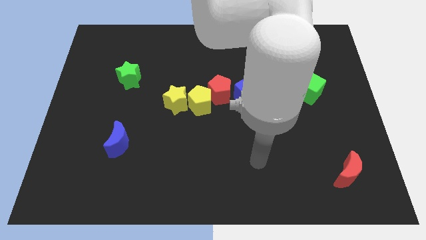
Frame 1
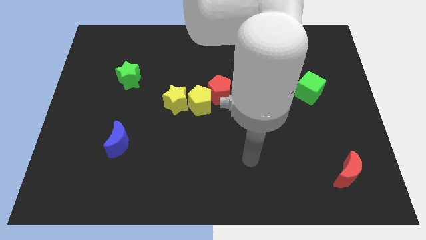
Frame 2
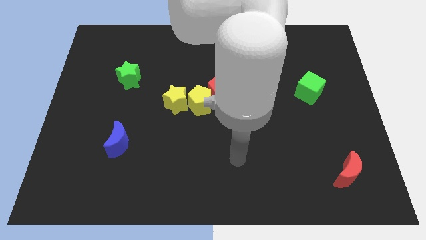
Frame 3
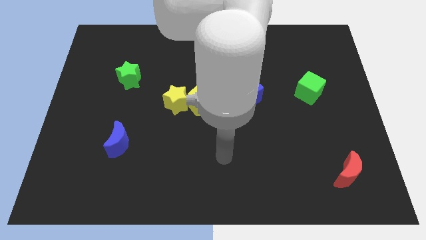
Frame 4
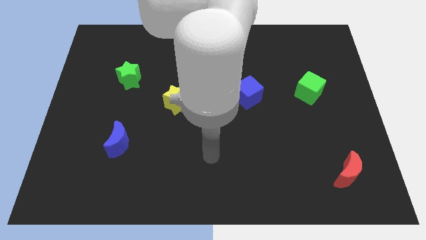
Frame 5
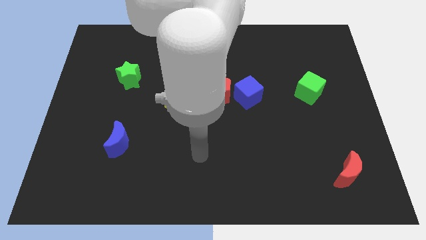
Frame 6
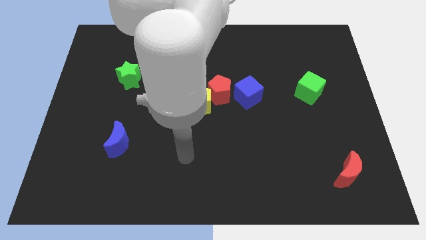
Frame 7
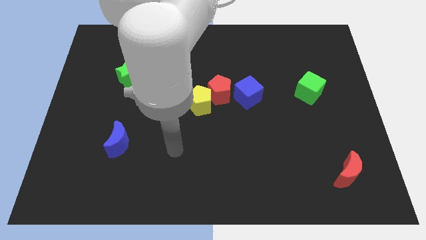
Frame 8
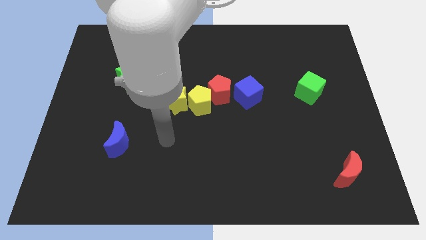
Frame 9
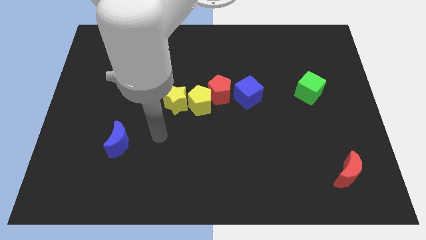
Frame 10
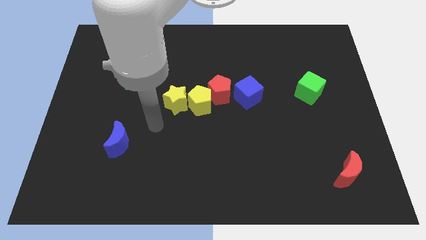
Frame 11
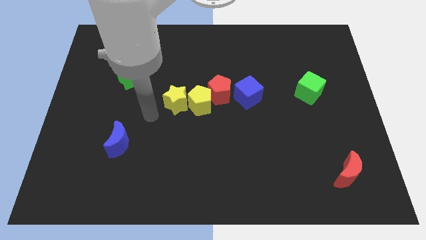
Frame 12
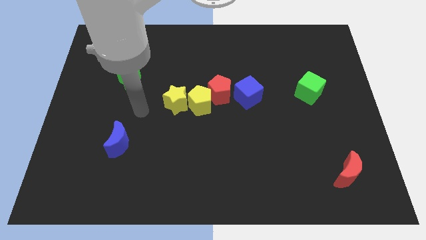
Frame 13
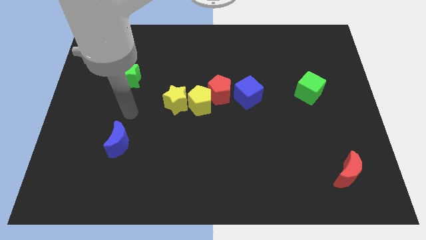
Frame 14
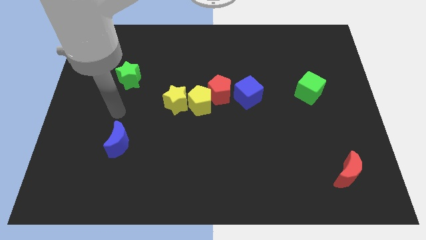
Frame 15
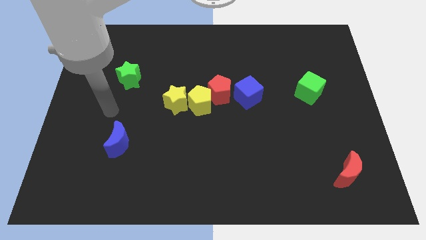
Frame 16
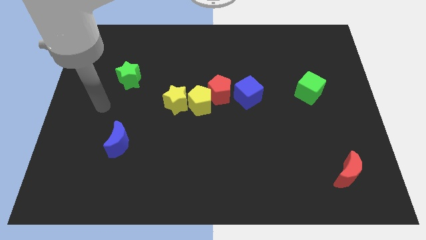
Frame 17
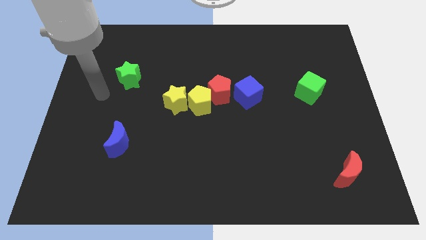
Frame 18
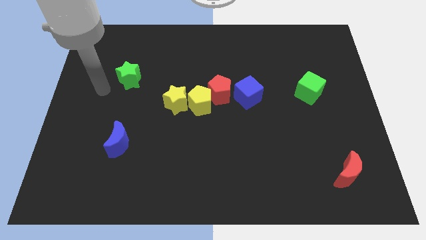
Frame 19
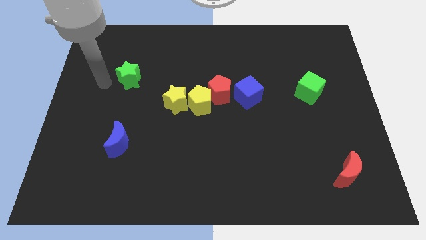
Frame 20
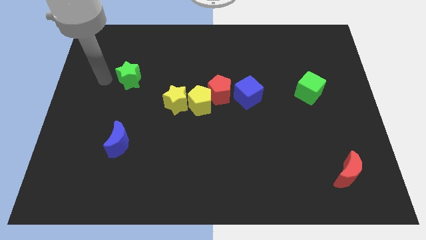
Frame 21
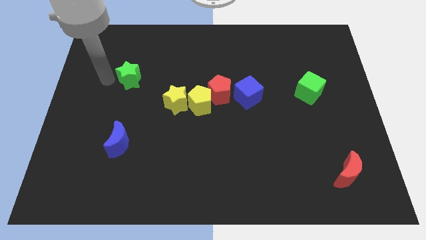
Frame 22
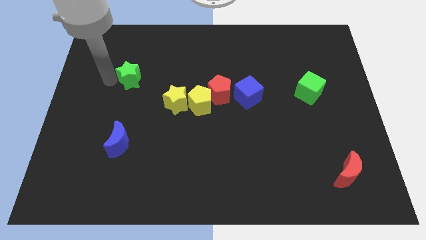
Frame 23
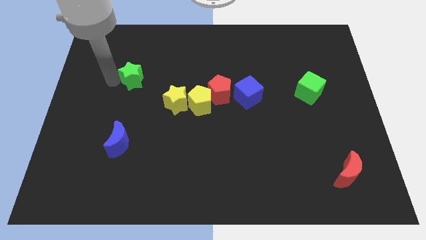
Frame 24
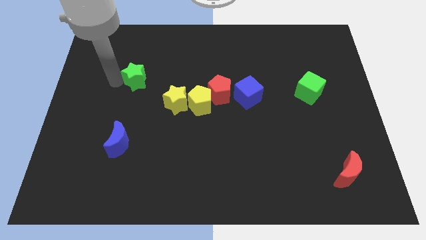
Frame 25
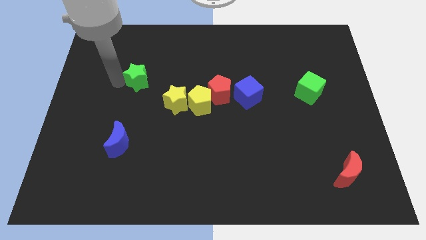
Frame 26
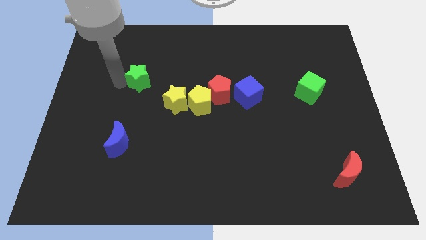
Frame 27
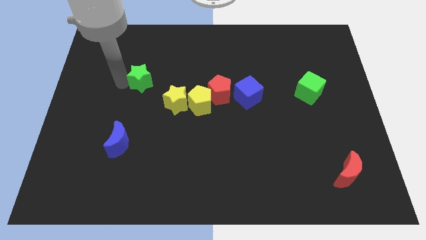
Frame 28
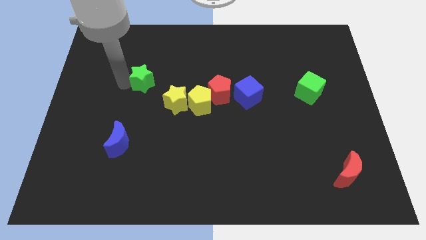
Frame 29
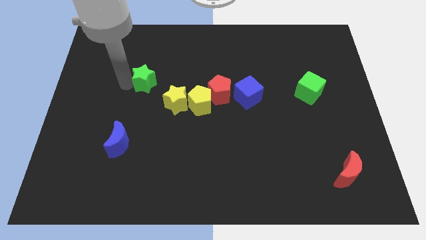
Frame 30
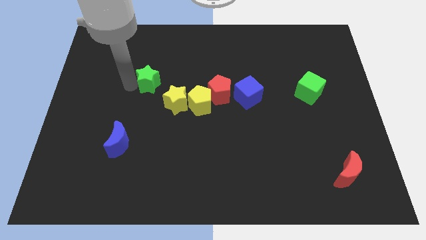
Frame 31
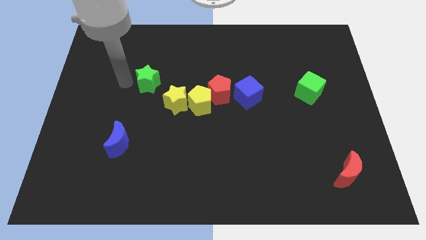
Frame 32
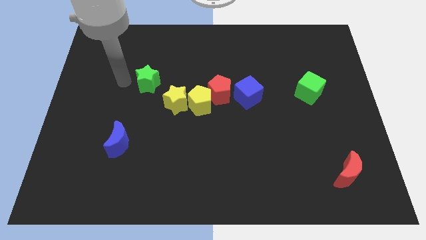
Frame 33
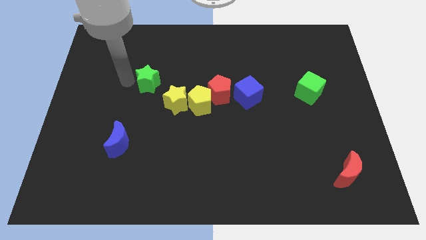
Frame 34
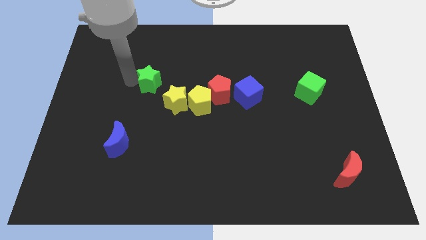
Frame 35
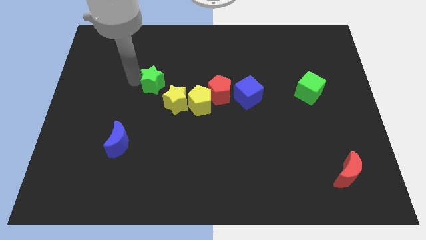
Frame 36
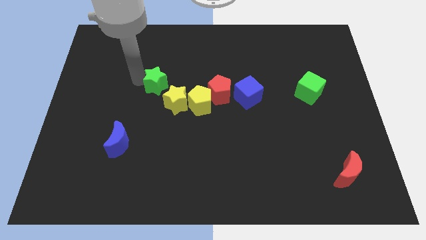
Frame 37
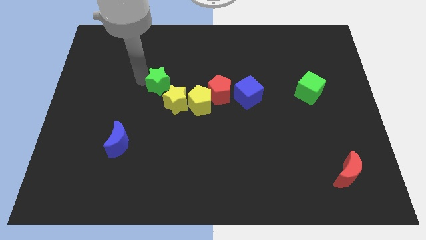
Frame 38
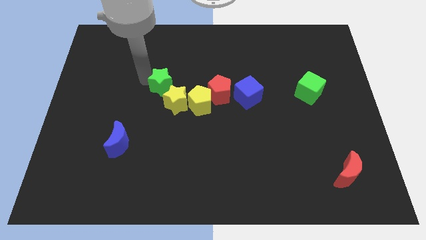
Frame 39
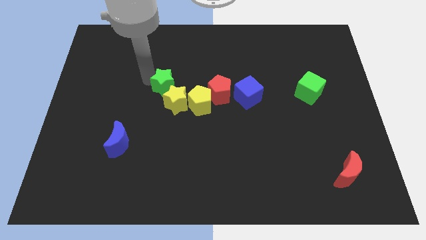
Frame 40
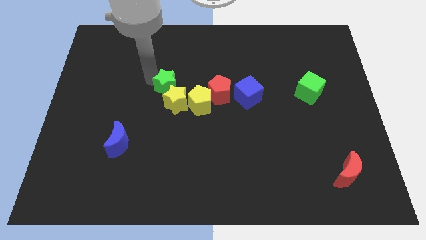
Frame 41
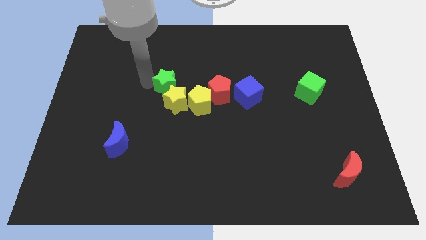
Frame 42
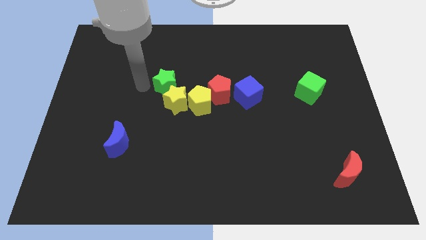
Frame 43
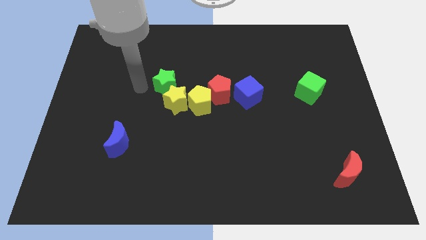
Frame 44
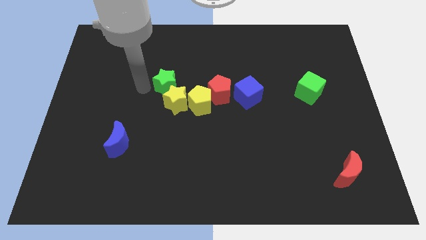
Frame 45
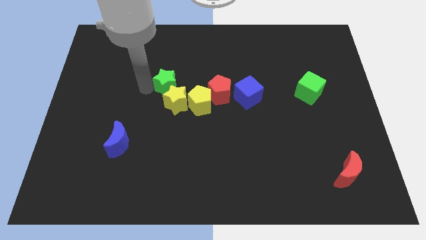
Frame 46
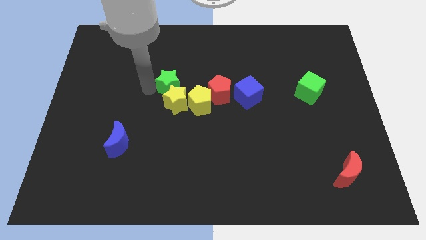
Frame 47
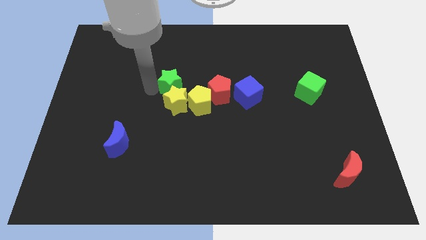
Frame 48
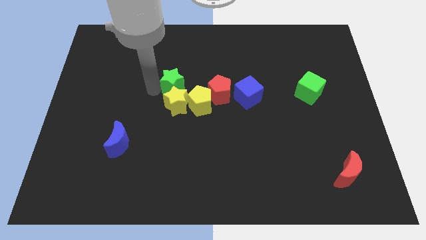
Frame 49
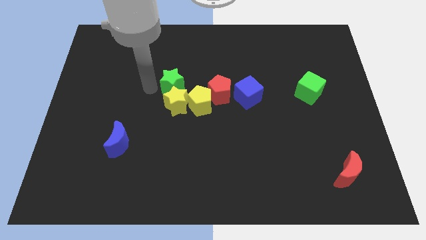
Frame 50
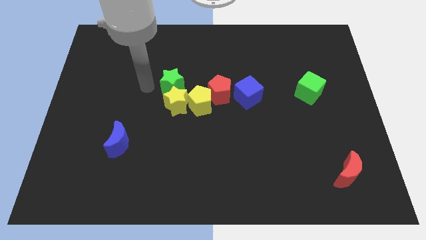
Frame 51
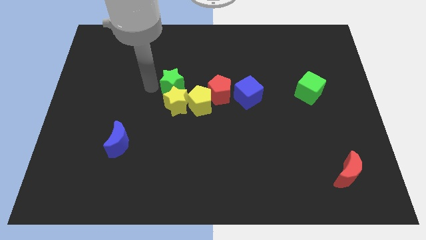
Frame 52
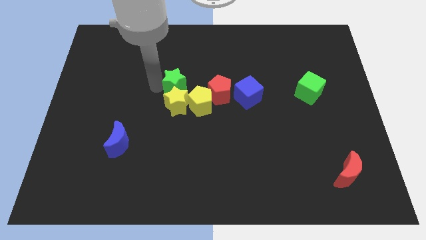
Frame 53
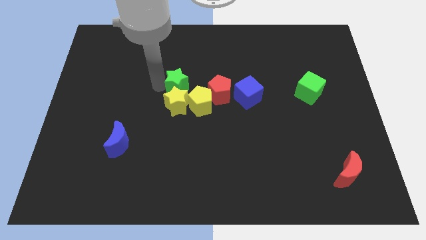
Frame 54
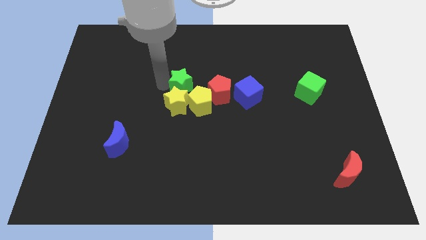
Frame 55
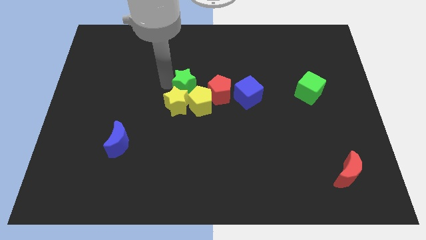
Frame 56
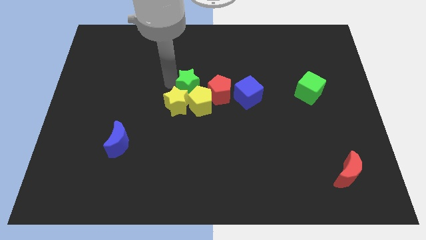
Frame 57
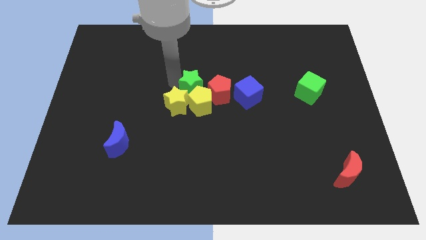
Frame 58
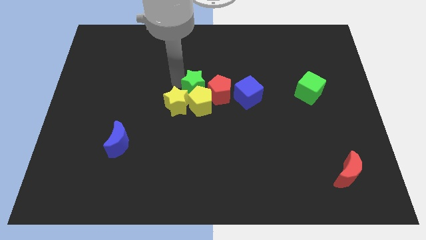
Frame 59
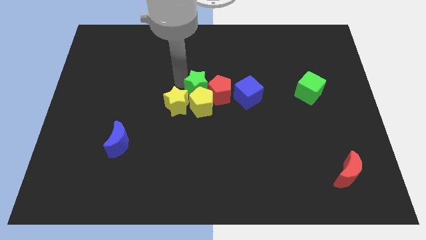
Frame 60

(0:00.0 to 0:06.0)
slide the green star towards the red pentagon
